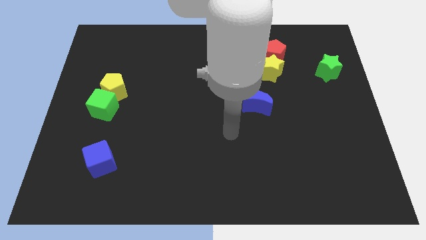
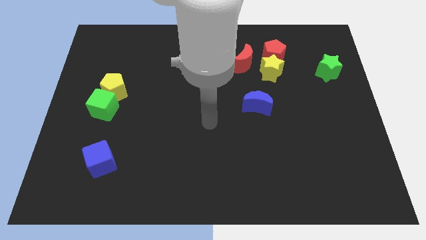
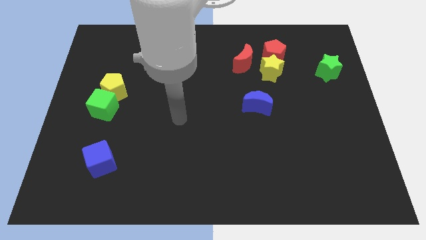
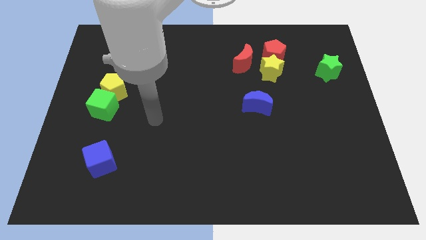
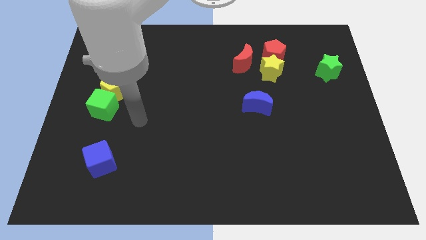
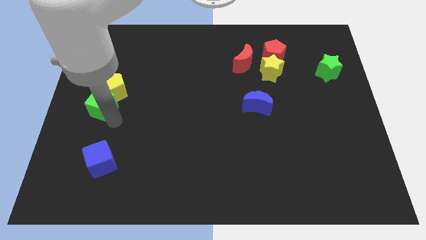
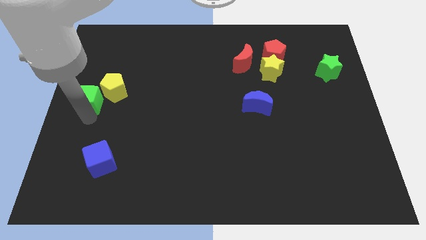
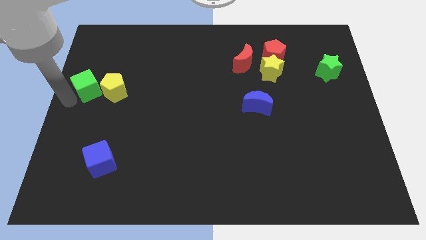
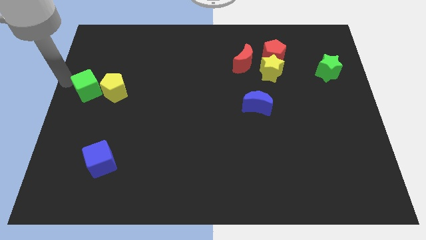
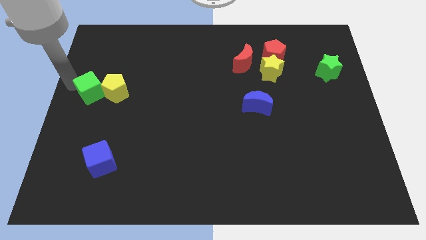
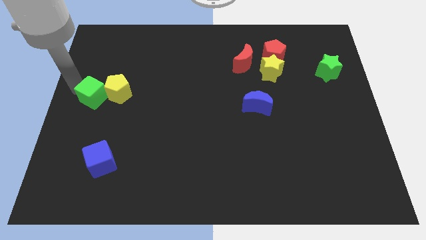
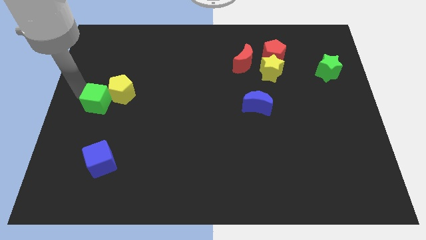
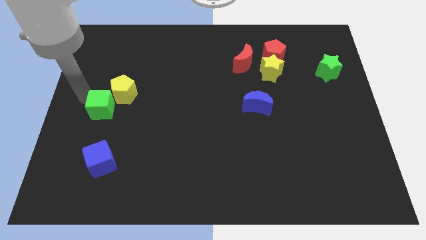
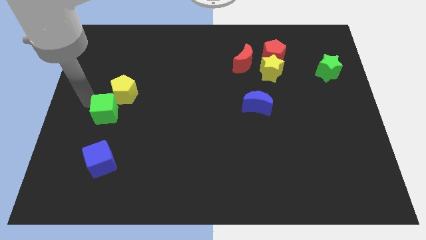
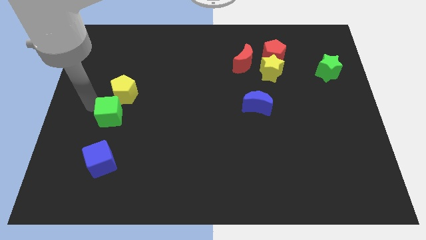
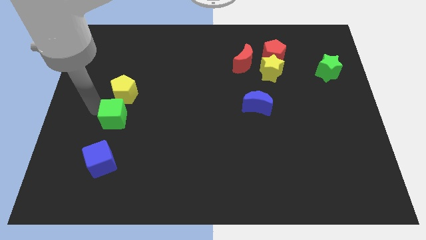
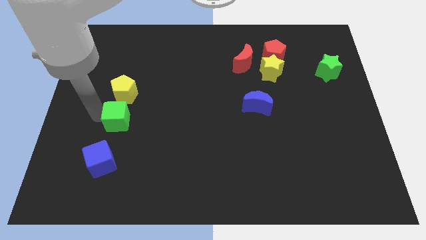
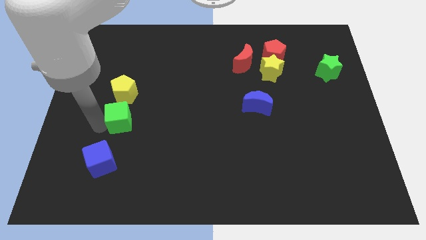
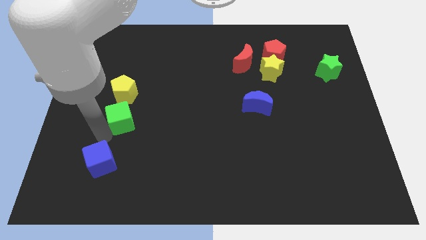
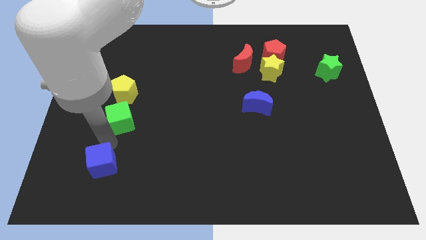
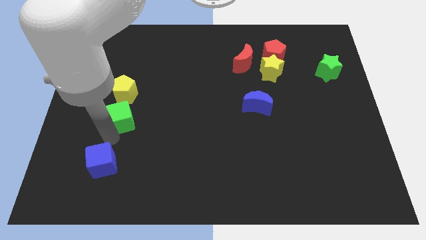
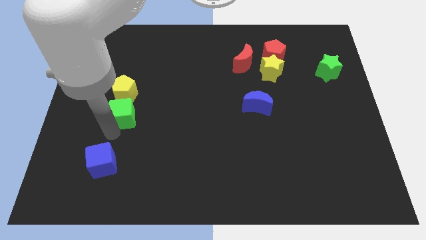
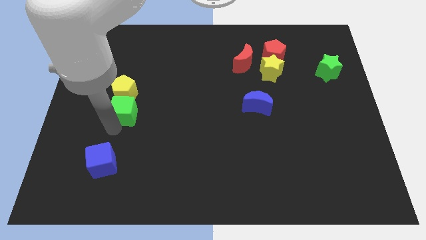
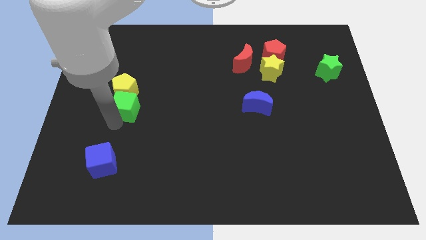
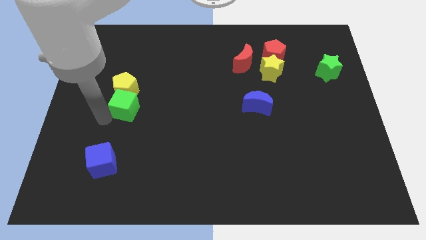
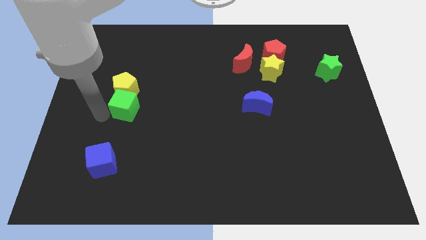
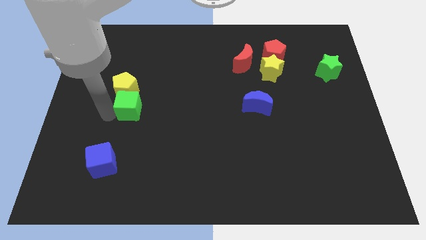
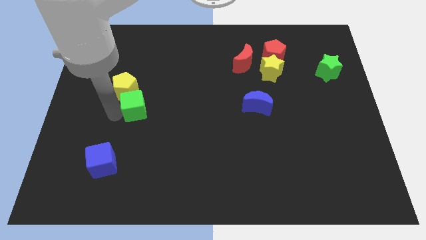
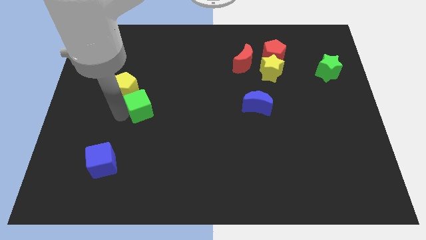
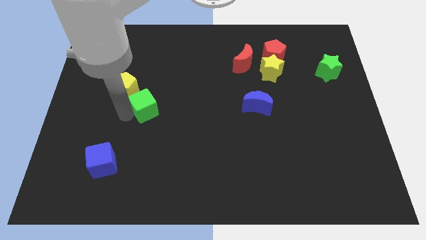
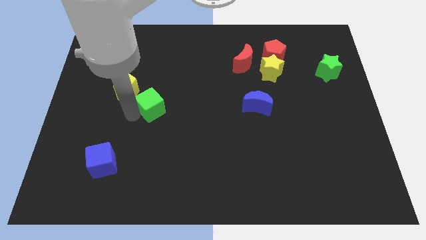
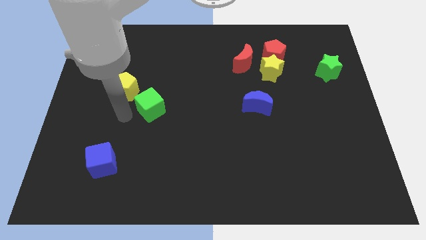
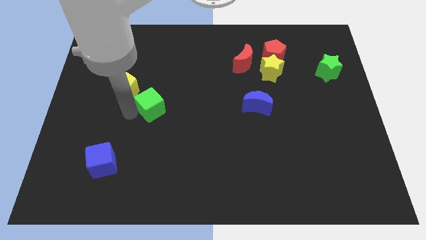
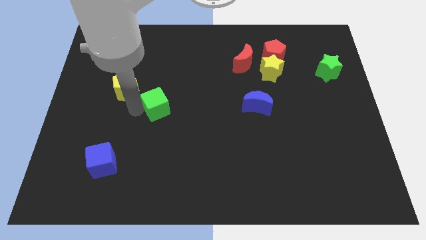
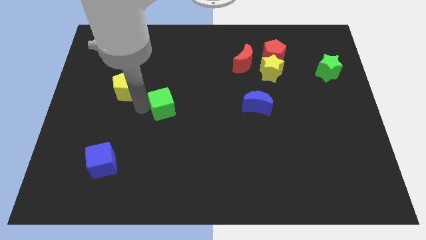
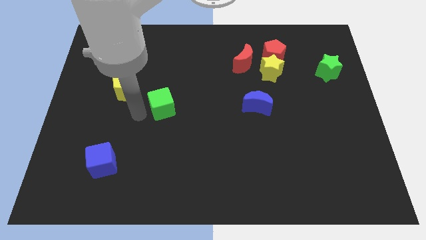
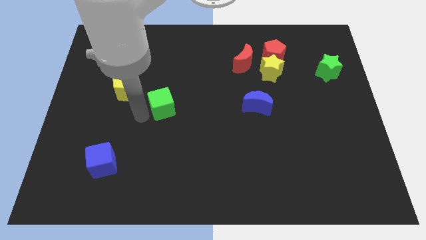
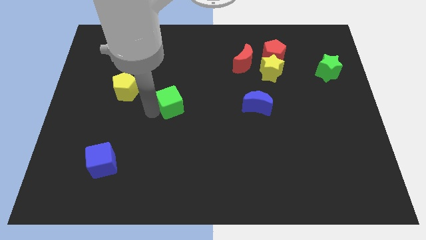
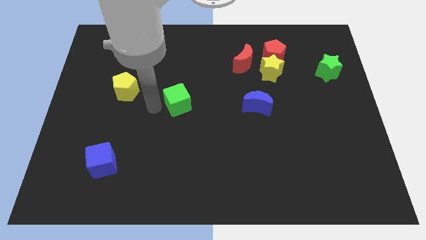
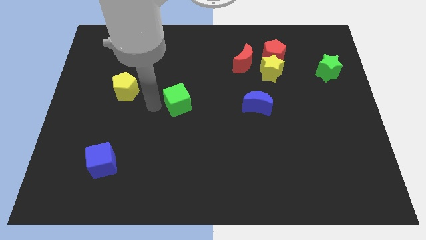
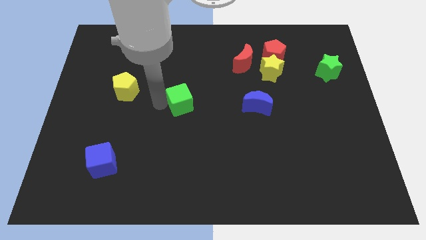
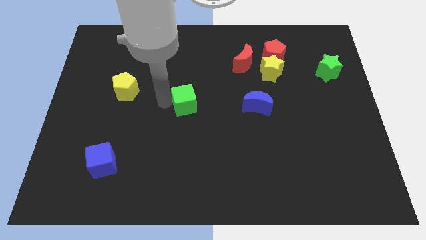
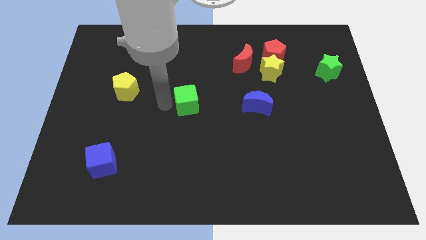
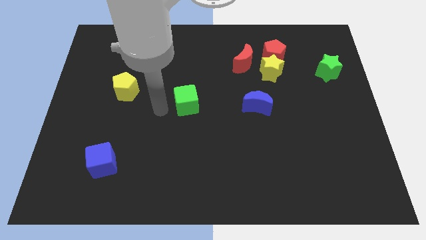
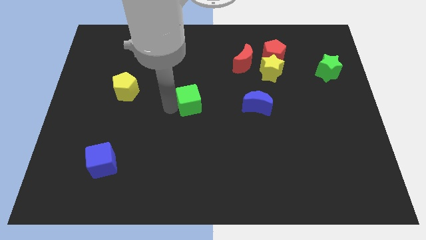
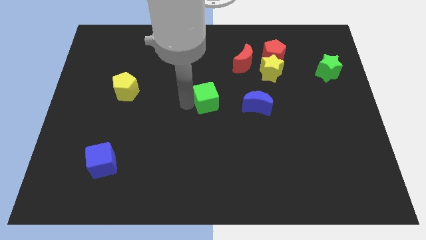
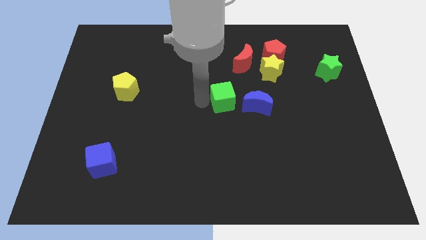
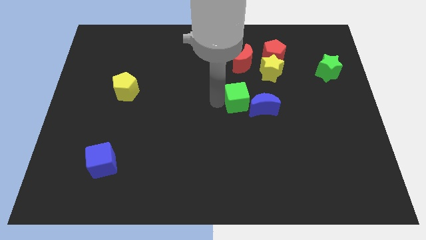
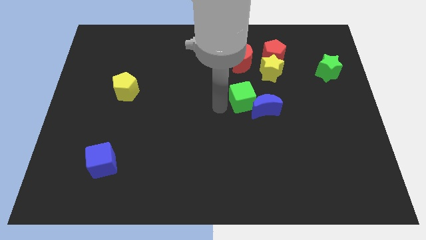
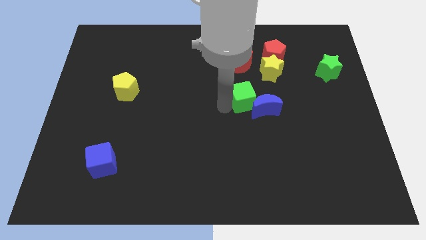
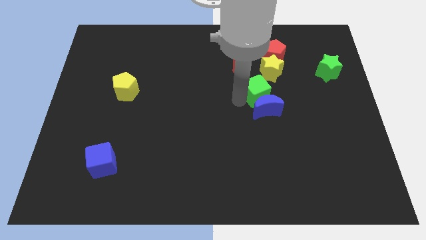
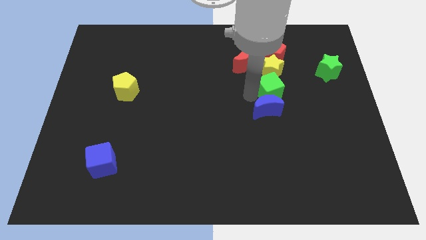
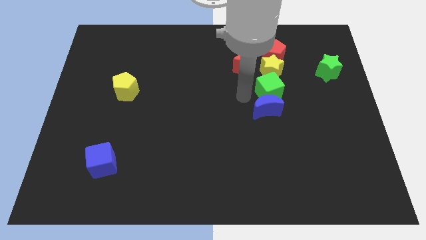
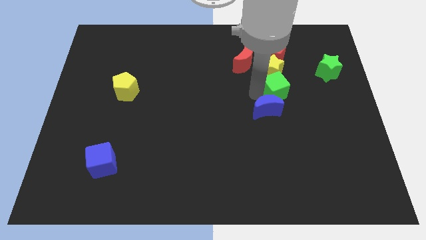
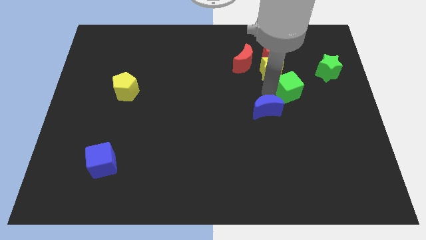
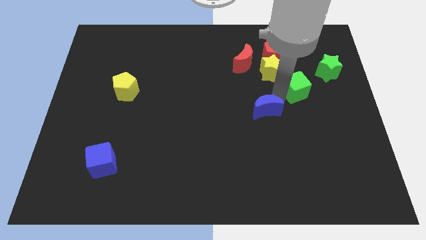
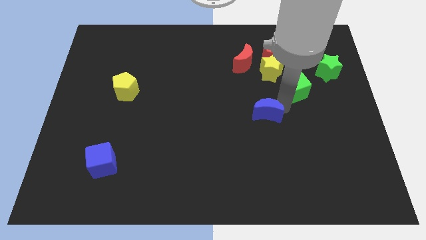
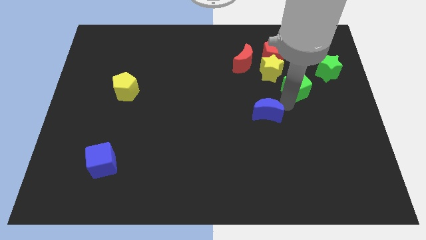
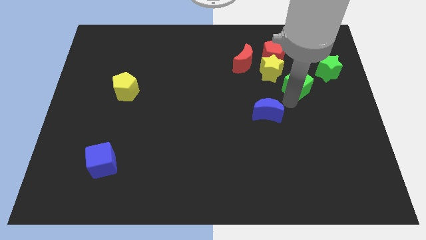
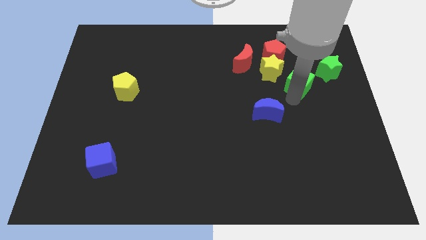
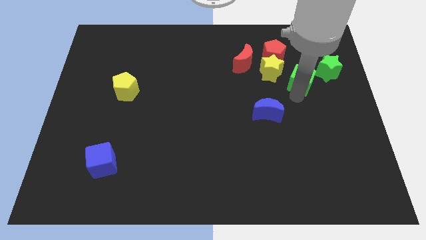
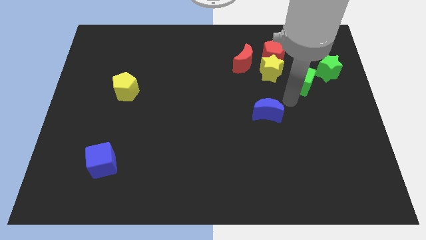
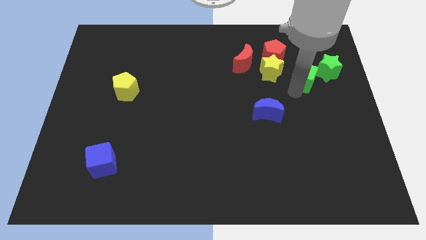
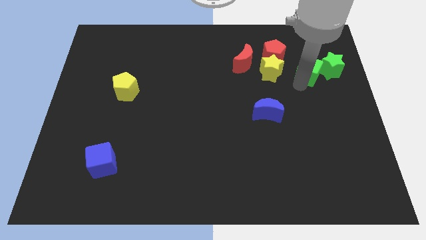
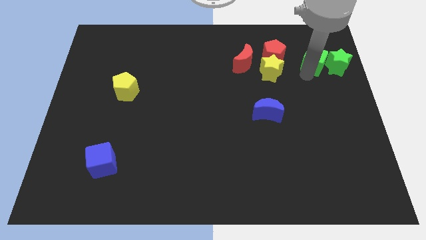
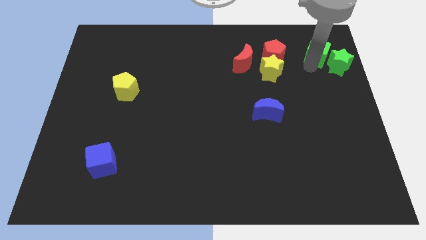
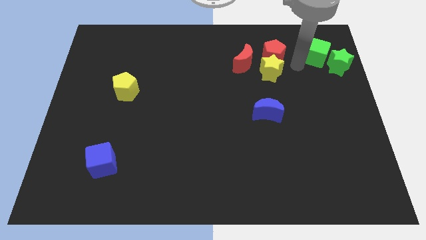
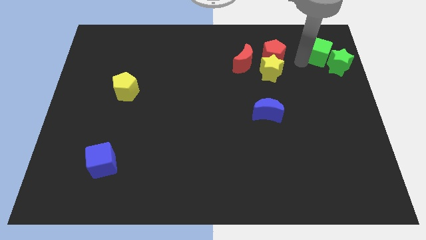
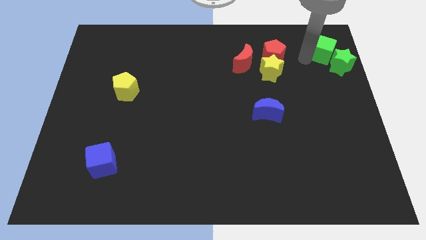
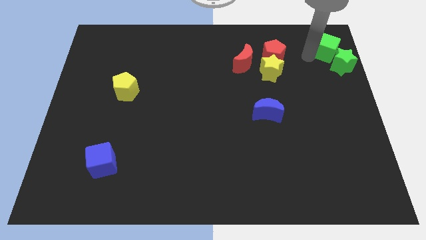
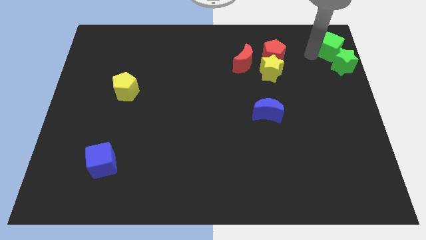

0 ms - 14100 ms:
put the green cube to the top right corner
